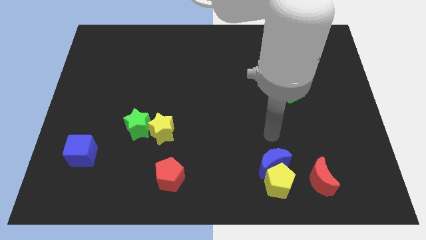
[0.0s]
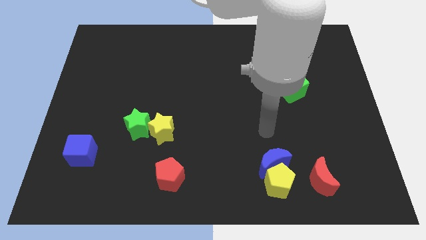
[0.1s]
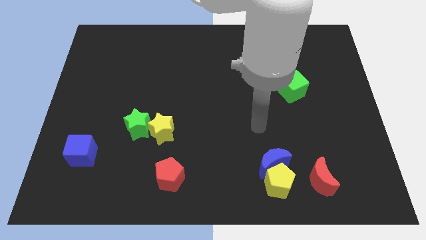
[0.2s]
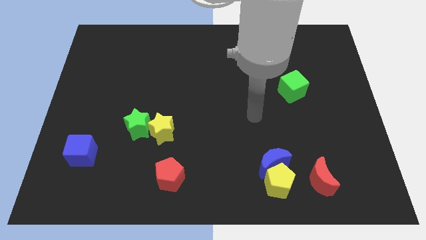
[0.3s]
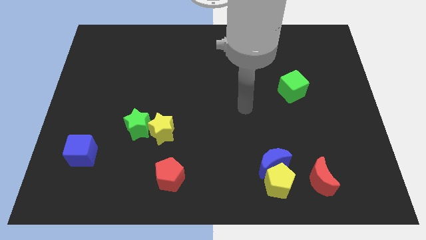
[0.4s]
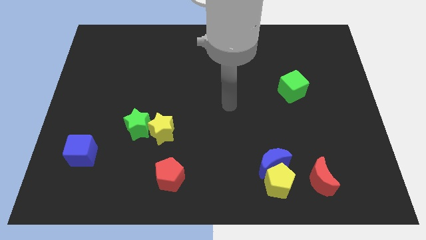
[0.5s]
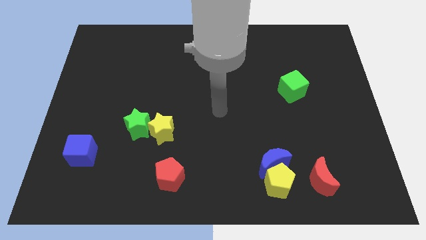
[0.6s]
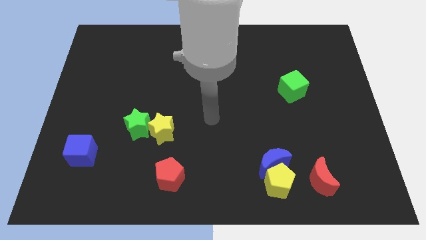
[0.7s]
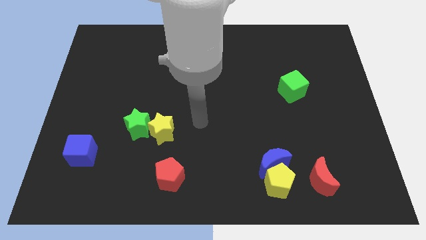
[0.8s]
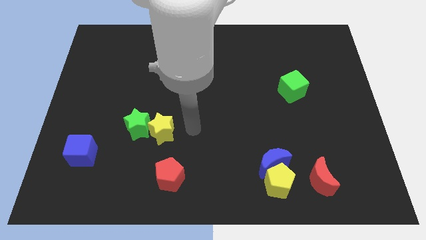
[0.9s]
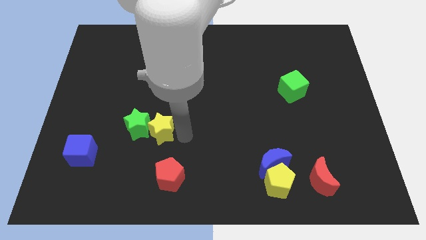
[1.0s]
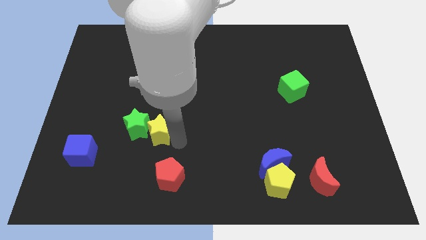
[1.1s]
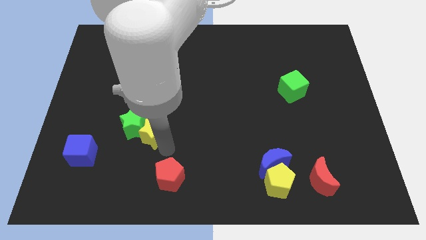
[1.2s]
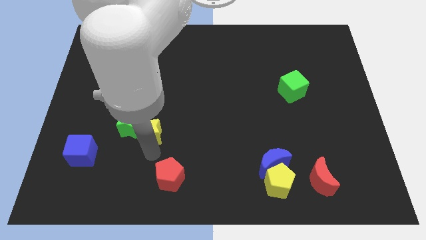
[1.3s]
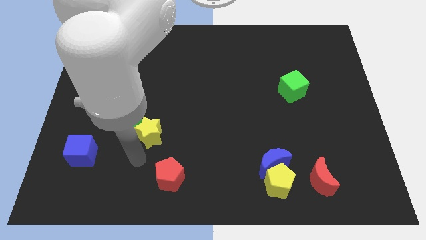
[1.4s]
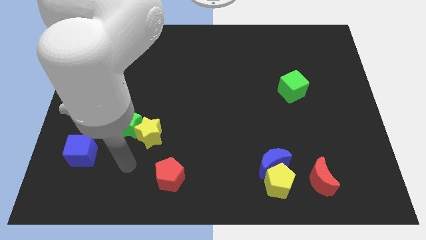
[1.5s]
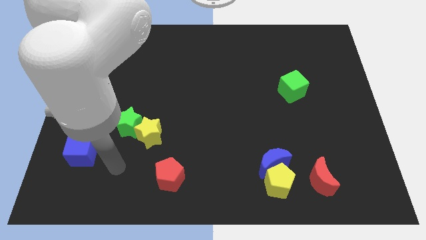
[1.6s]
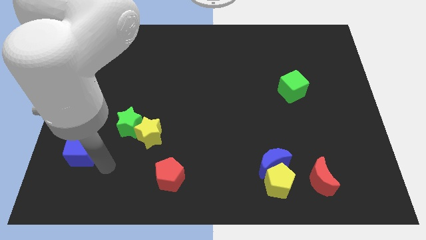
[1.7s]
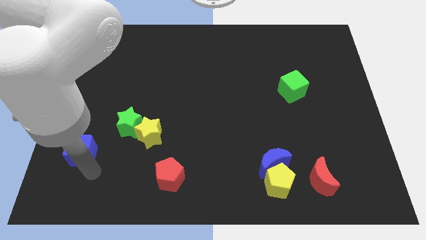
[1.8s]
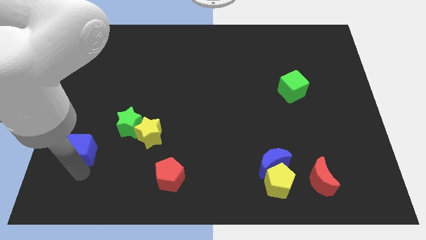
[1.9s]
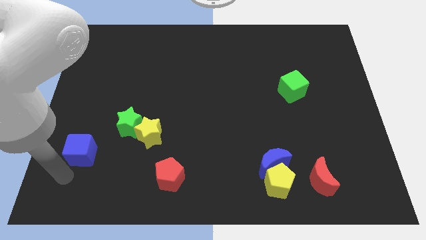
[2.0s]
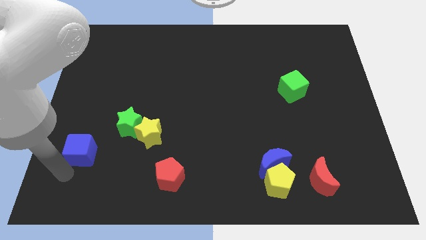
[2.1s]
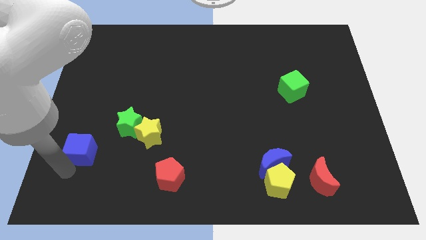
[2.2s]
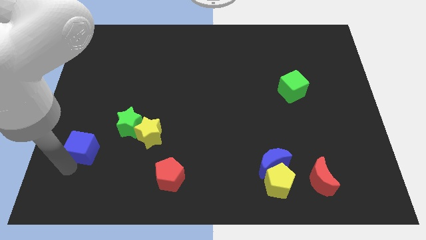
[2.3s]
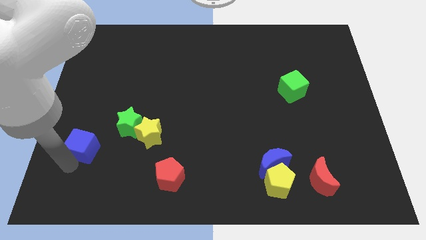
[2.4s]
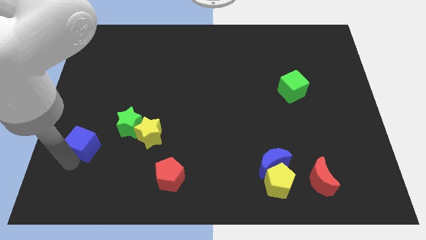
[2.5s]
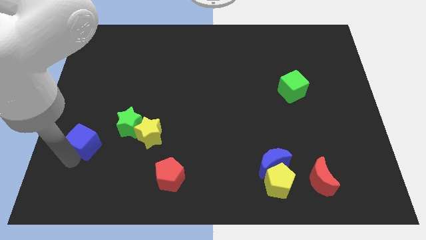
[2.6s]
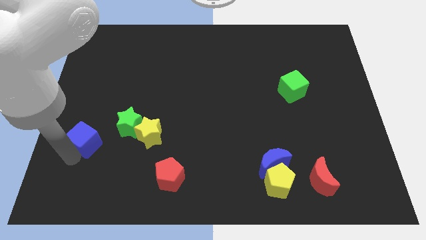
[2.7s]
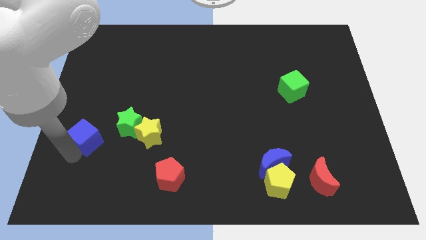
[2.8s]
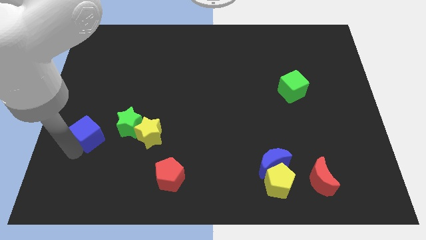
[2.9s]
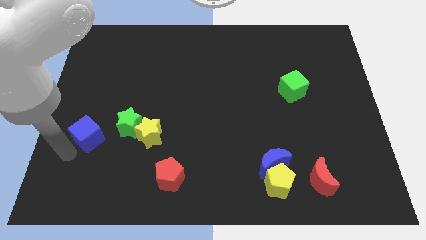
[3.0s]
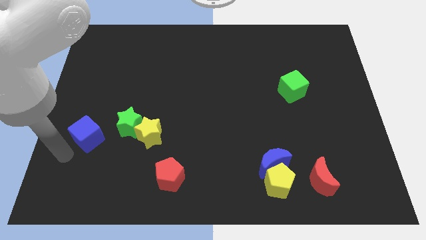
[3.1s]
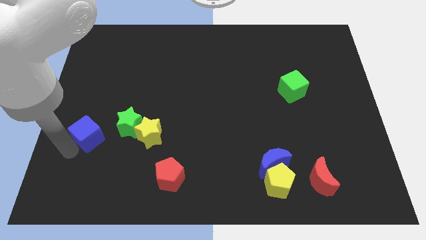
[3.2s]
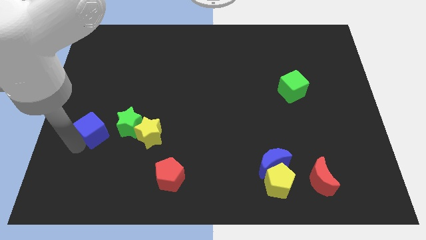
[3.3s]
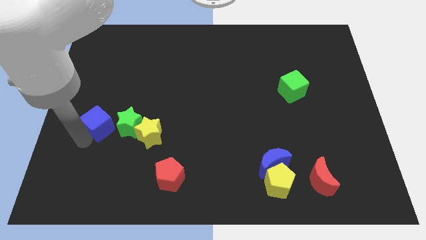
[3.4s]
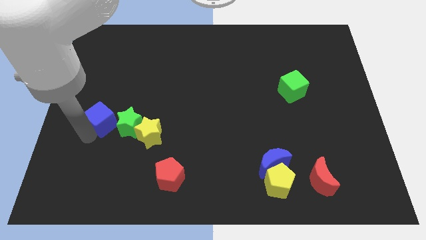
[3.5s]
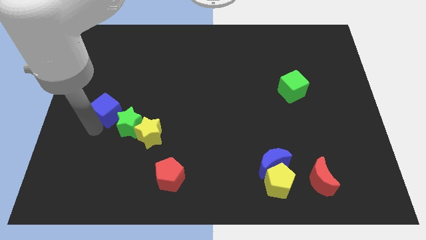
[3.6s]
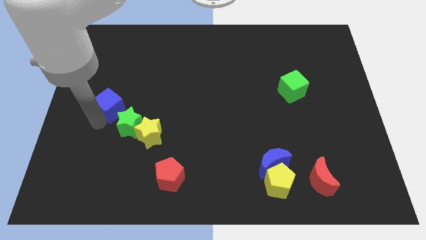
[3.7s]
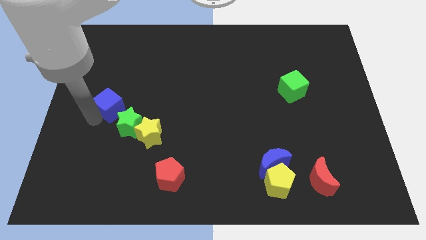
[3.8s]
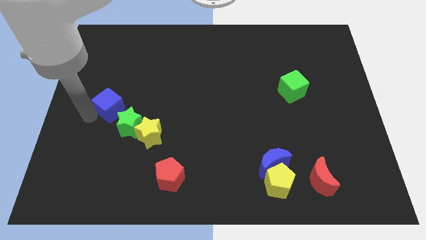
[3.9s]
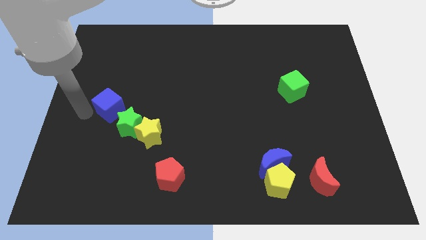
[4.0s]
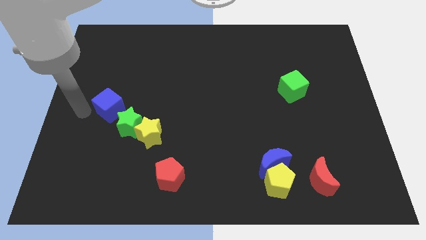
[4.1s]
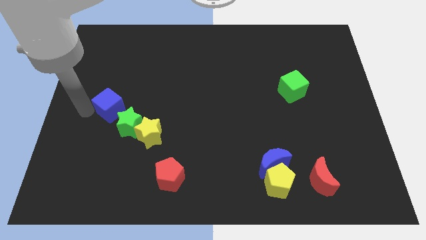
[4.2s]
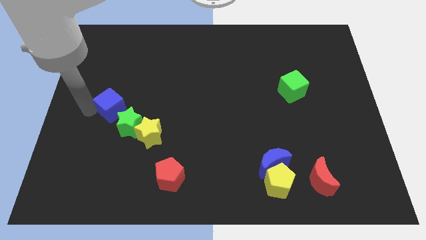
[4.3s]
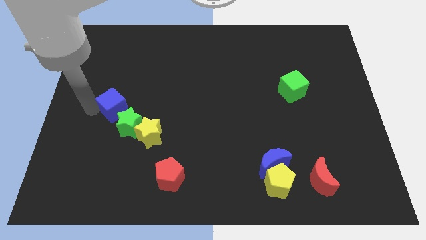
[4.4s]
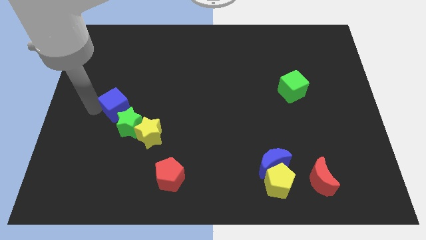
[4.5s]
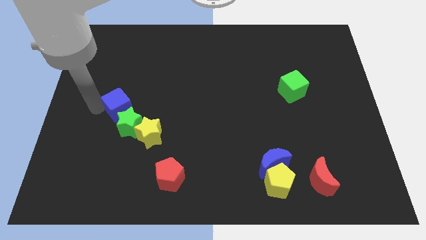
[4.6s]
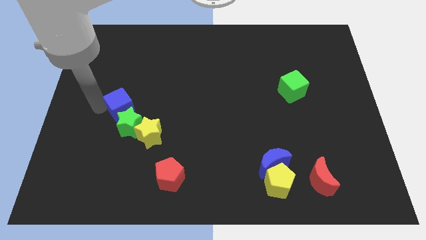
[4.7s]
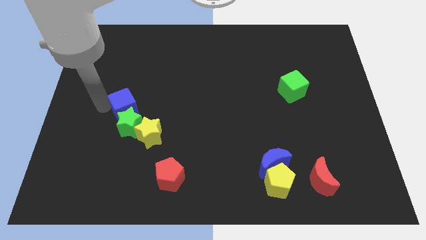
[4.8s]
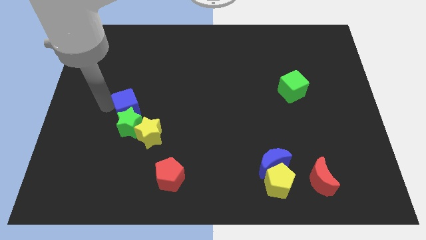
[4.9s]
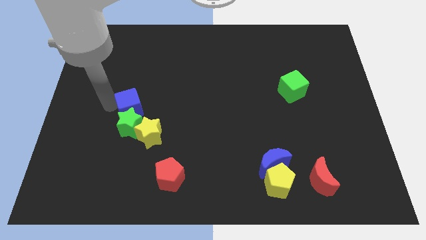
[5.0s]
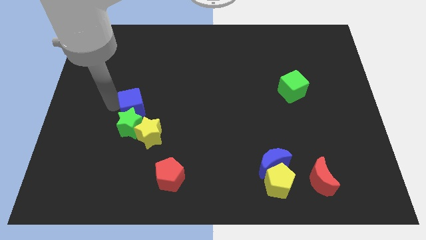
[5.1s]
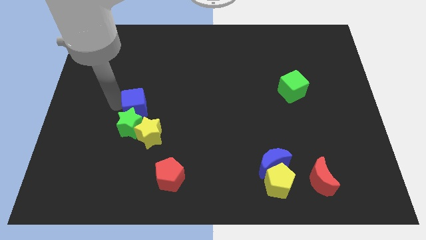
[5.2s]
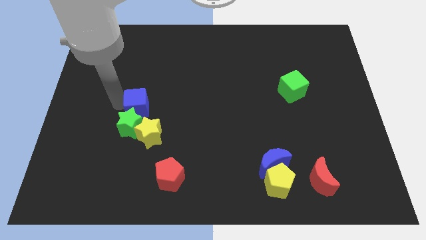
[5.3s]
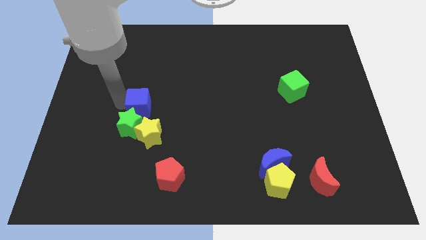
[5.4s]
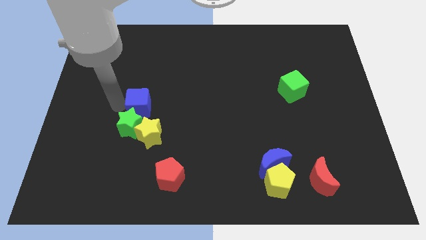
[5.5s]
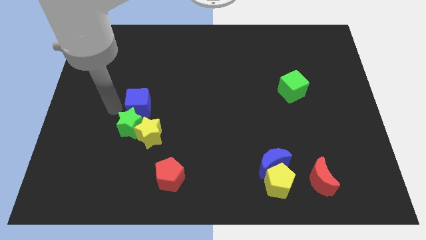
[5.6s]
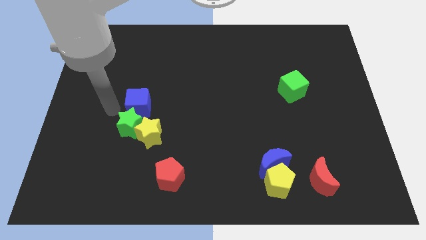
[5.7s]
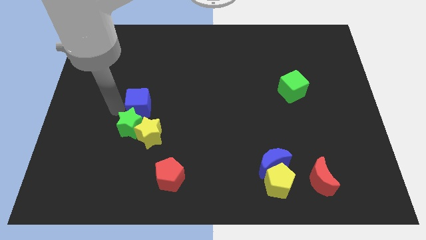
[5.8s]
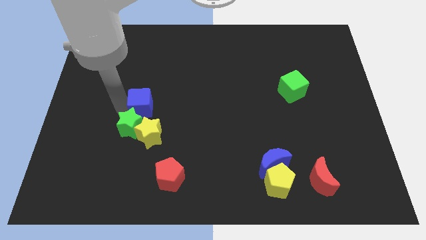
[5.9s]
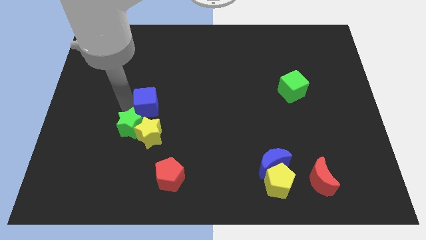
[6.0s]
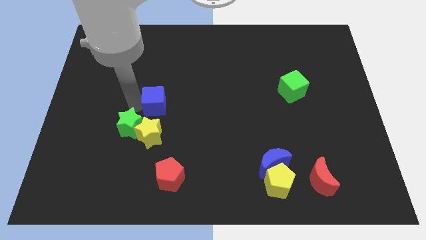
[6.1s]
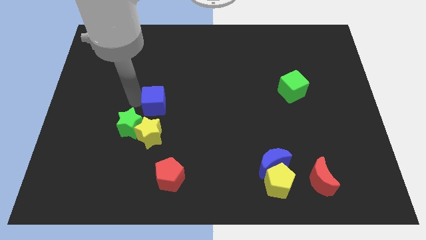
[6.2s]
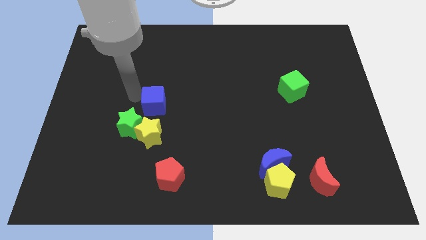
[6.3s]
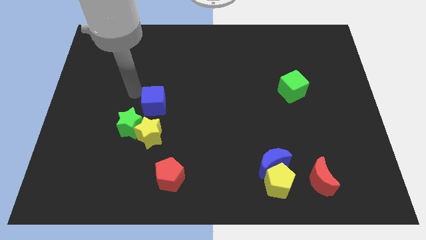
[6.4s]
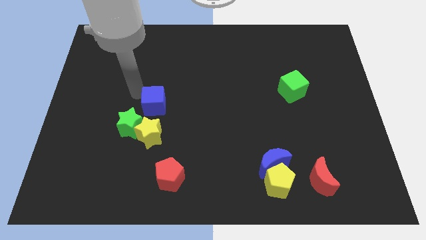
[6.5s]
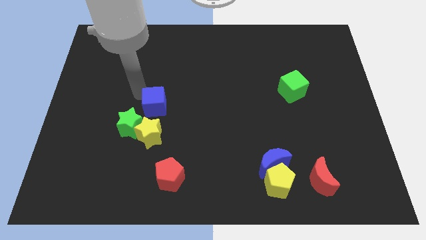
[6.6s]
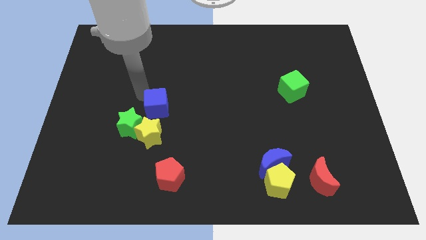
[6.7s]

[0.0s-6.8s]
move the blue cube to the top right side of the yellow star
